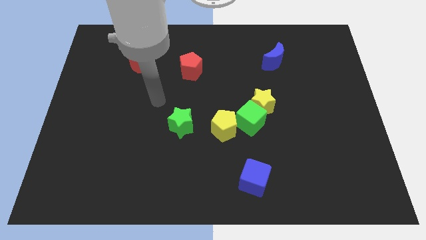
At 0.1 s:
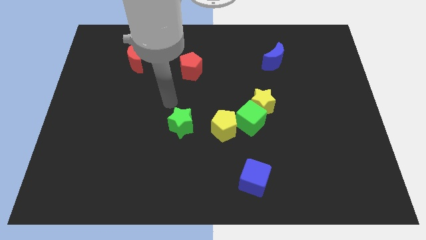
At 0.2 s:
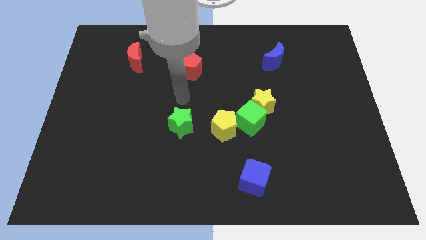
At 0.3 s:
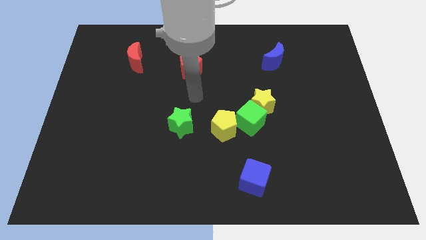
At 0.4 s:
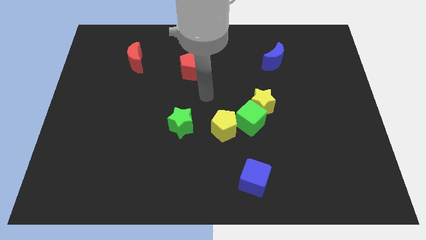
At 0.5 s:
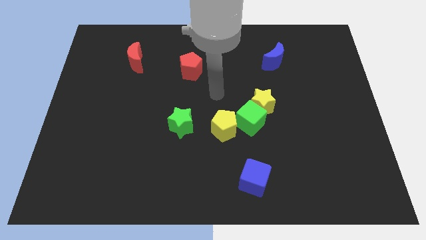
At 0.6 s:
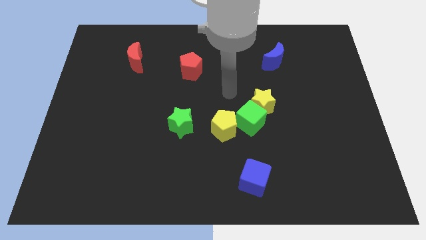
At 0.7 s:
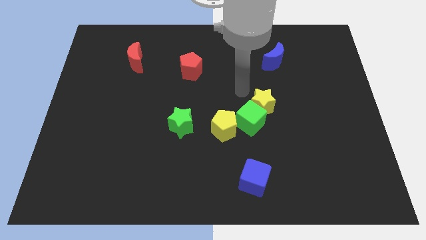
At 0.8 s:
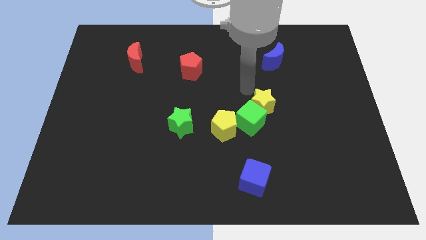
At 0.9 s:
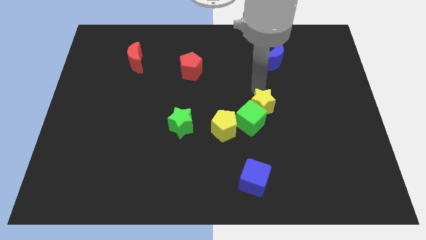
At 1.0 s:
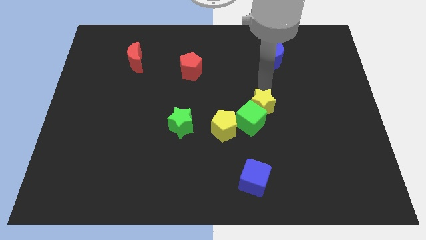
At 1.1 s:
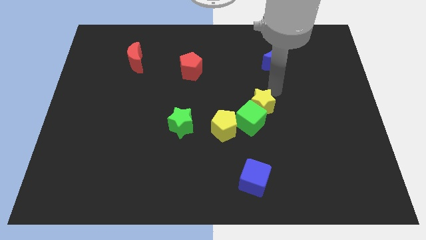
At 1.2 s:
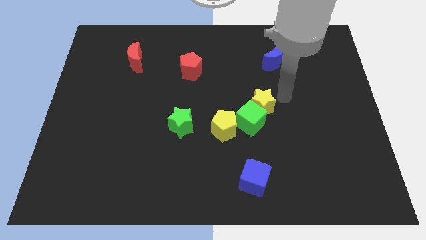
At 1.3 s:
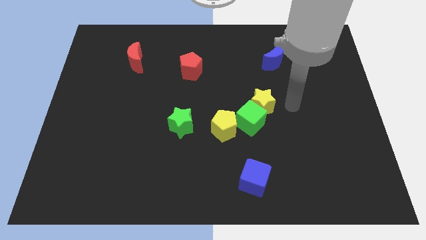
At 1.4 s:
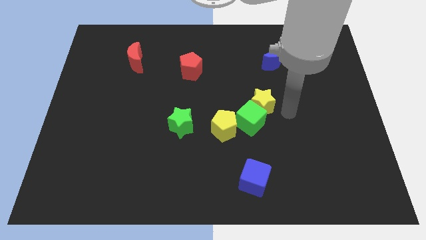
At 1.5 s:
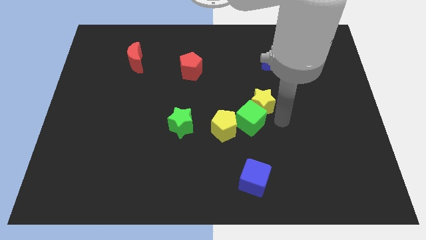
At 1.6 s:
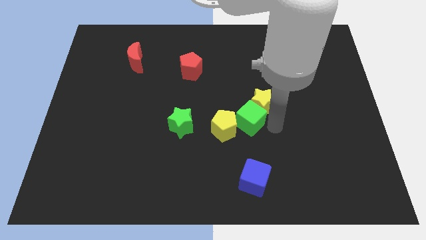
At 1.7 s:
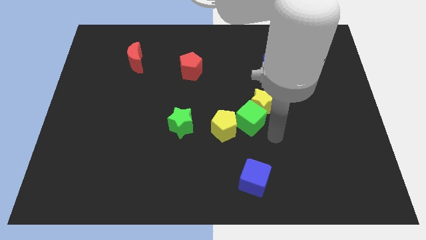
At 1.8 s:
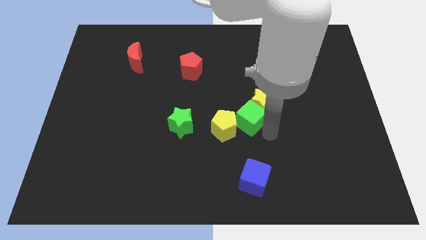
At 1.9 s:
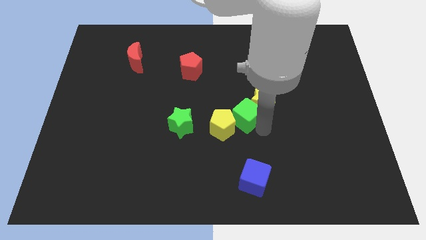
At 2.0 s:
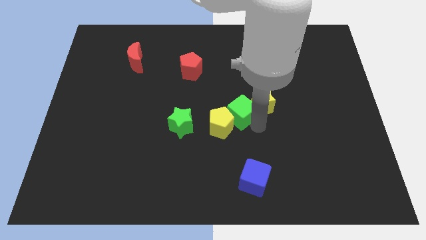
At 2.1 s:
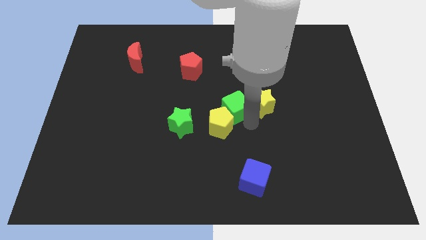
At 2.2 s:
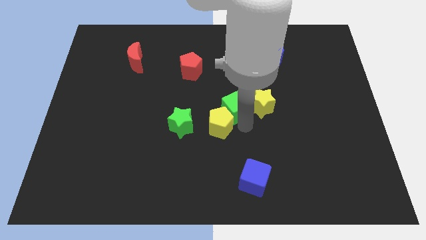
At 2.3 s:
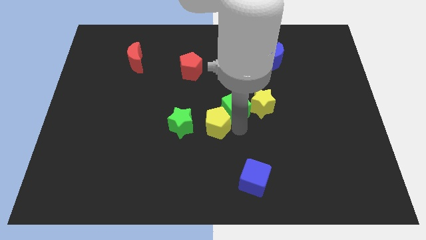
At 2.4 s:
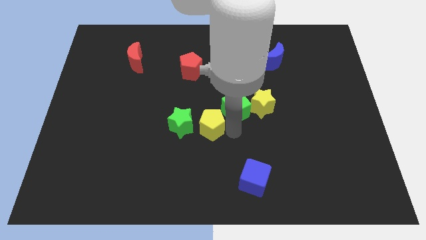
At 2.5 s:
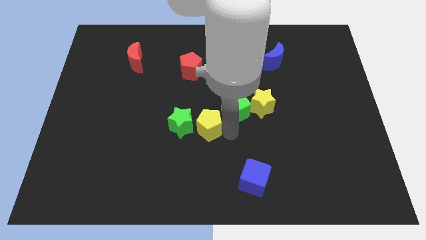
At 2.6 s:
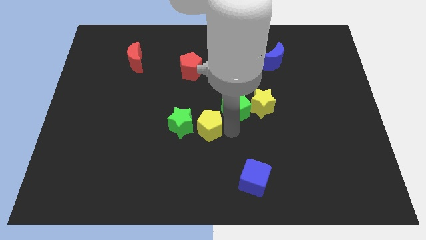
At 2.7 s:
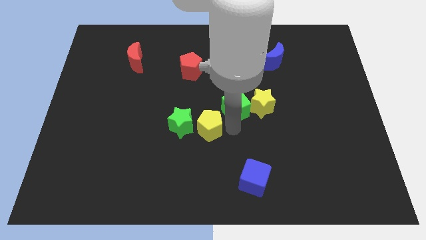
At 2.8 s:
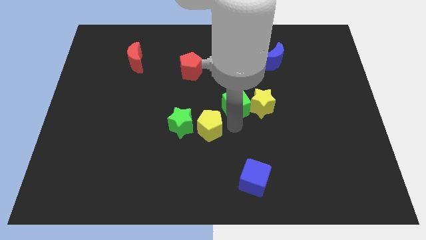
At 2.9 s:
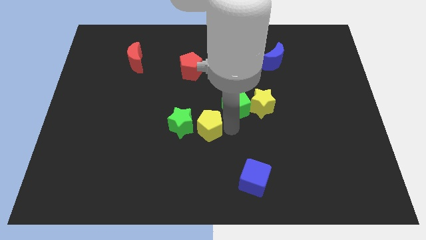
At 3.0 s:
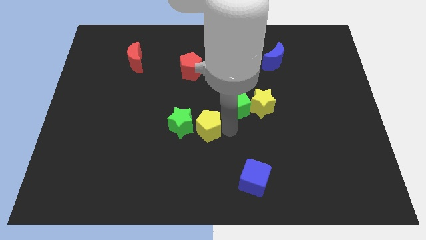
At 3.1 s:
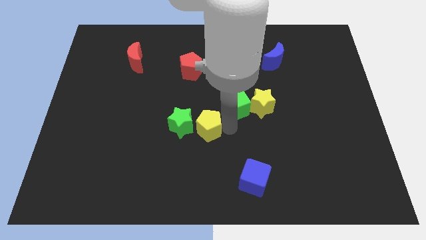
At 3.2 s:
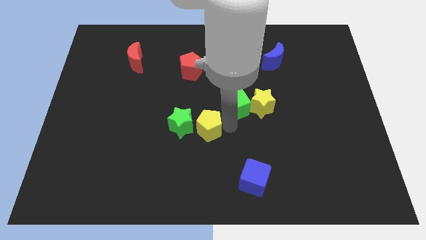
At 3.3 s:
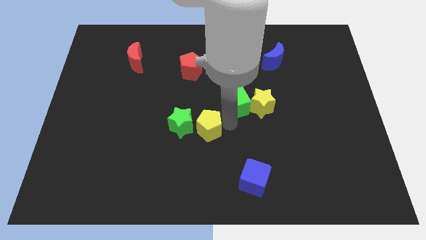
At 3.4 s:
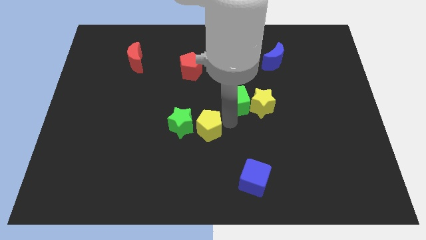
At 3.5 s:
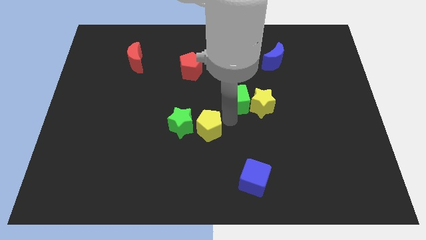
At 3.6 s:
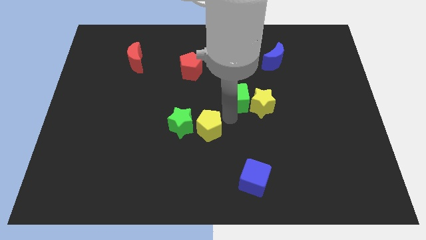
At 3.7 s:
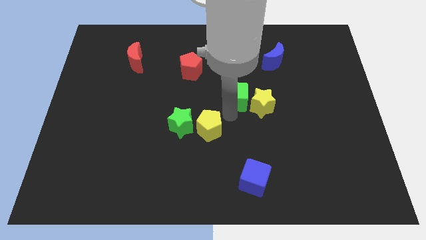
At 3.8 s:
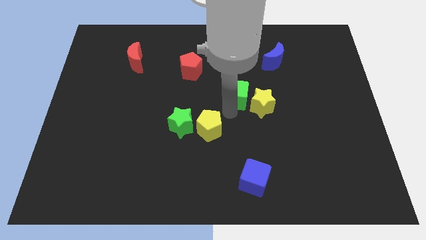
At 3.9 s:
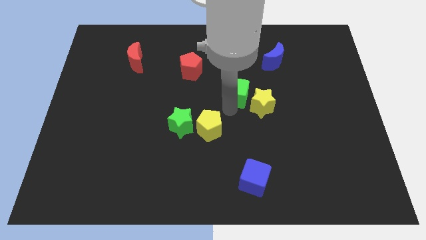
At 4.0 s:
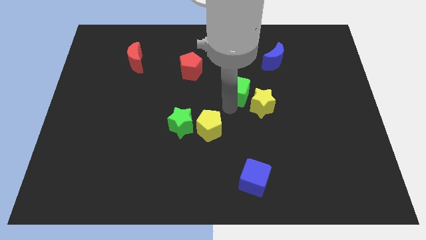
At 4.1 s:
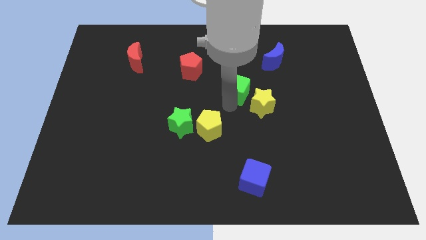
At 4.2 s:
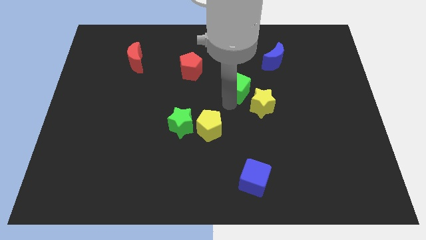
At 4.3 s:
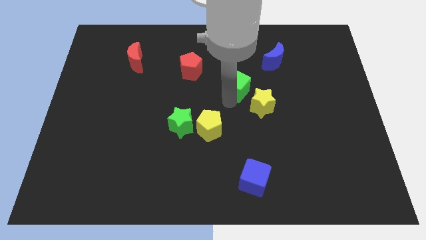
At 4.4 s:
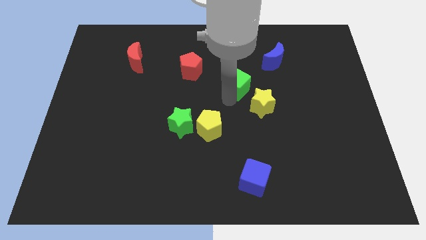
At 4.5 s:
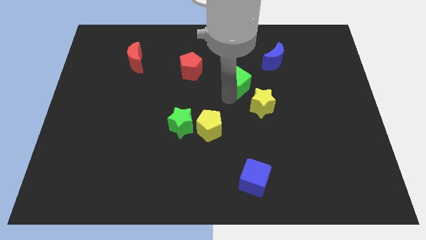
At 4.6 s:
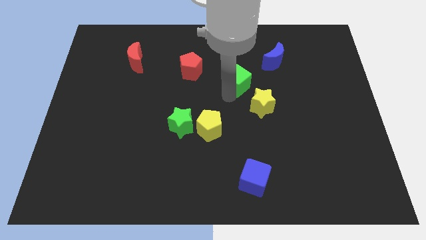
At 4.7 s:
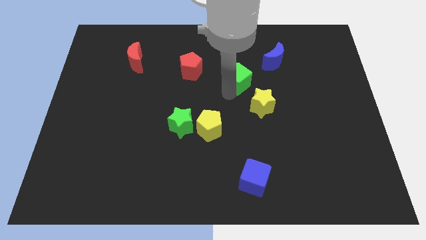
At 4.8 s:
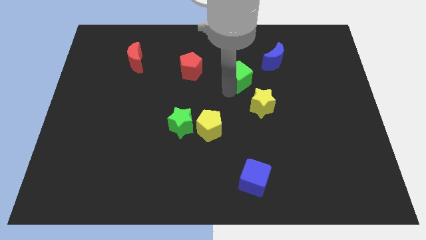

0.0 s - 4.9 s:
slide the green cube above the yellow star

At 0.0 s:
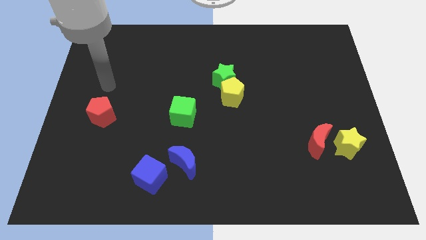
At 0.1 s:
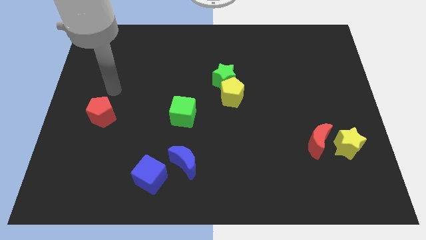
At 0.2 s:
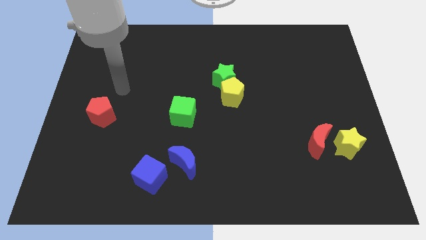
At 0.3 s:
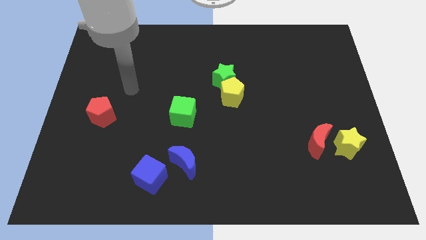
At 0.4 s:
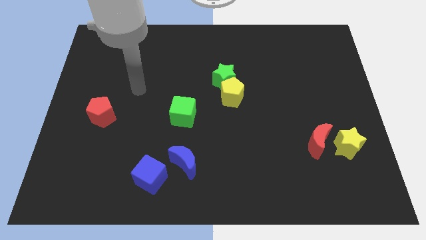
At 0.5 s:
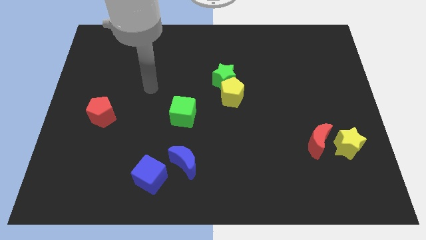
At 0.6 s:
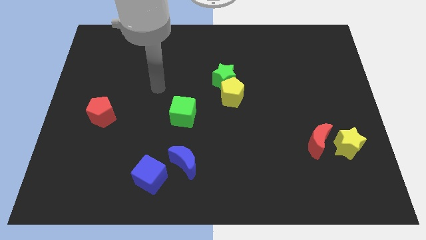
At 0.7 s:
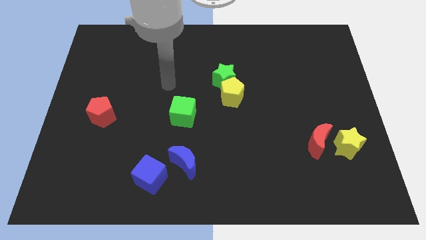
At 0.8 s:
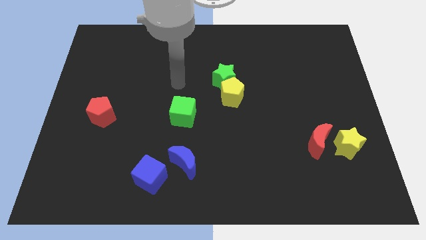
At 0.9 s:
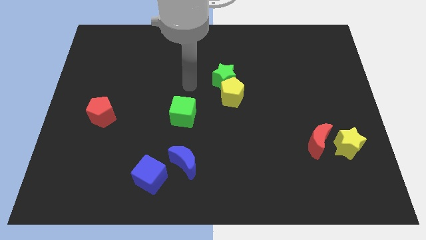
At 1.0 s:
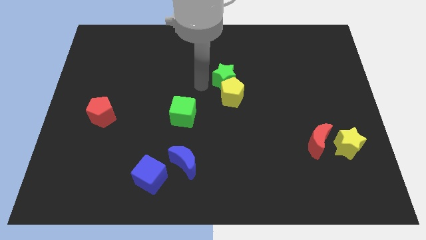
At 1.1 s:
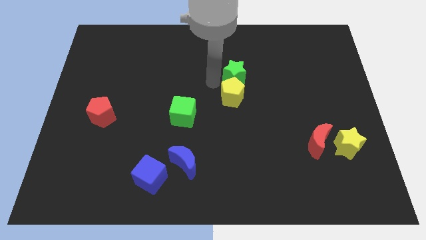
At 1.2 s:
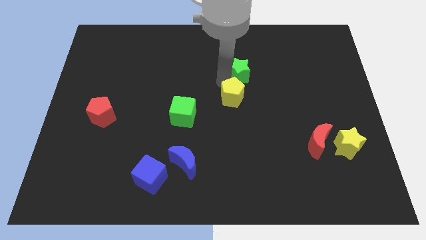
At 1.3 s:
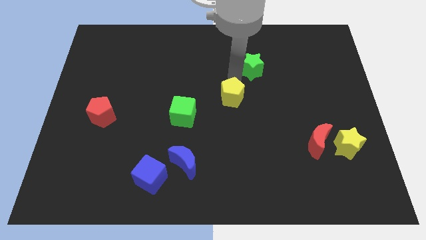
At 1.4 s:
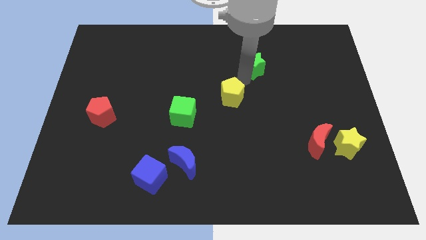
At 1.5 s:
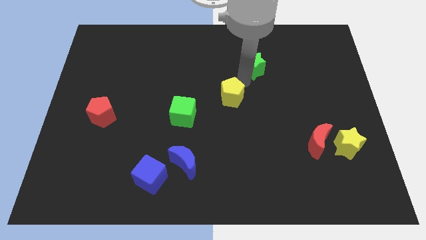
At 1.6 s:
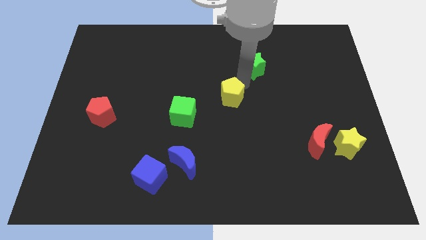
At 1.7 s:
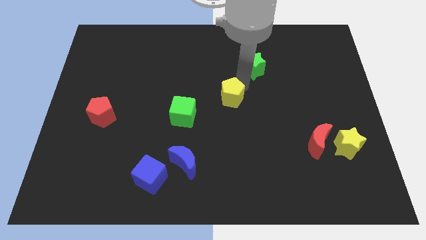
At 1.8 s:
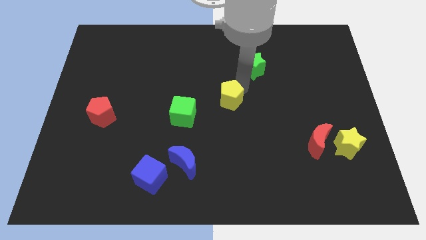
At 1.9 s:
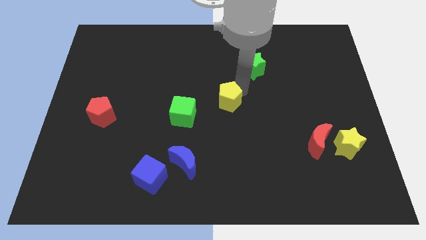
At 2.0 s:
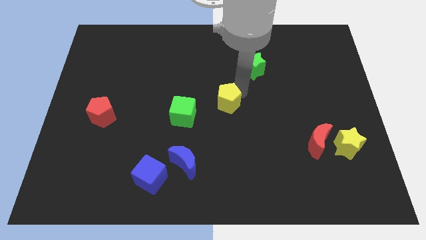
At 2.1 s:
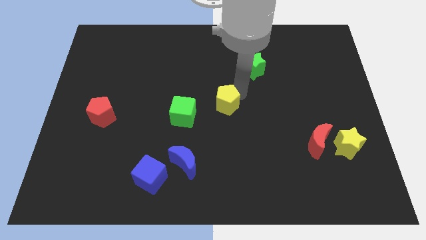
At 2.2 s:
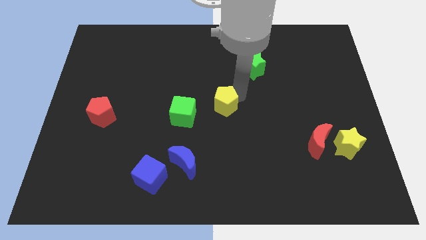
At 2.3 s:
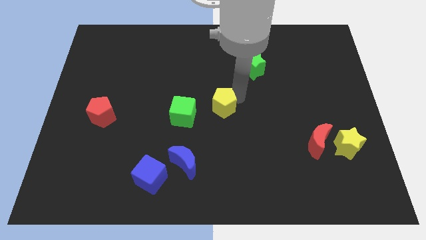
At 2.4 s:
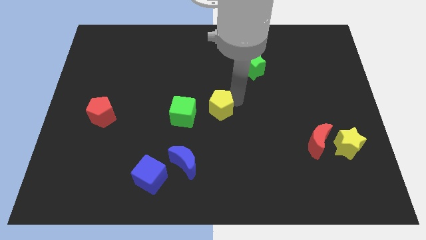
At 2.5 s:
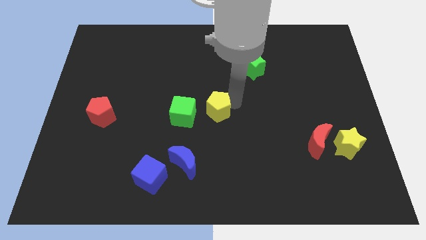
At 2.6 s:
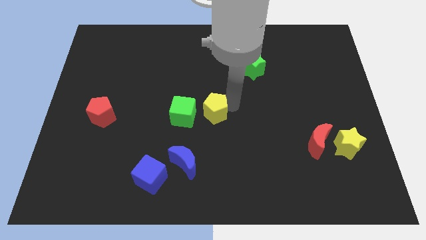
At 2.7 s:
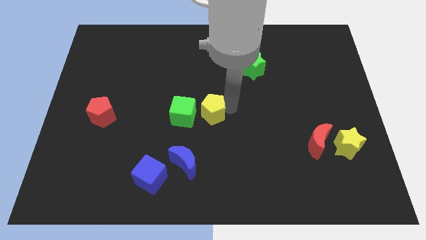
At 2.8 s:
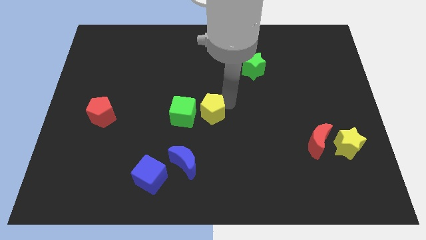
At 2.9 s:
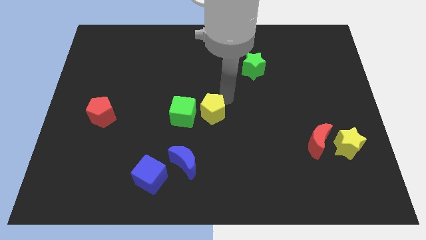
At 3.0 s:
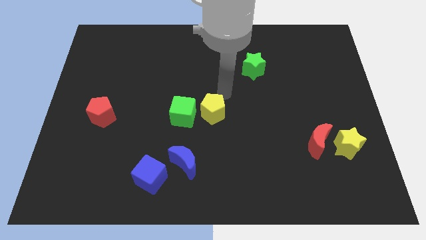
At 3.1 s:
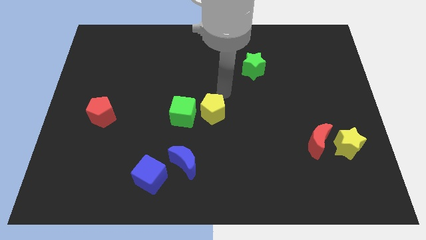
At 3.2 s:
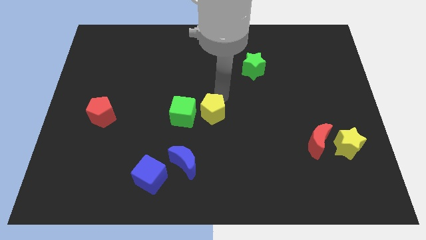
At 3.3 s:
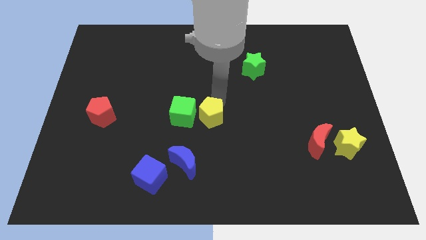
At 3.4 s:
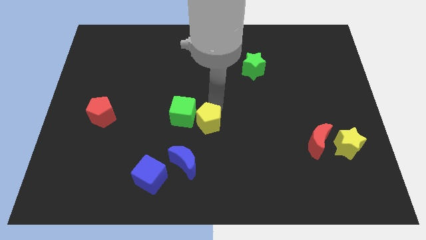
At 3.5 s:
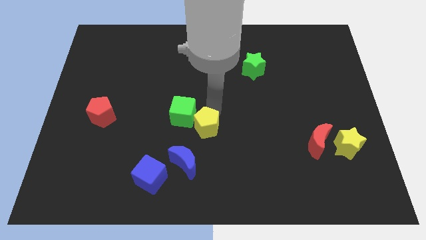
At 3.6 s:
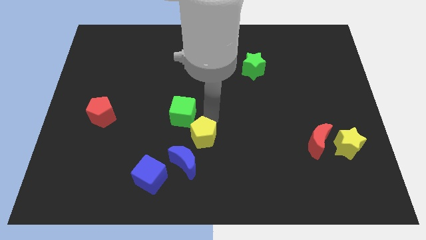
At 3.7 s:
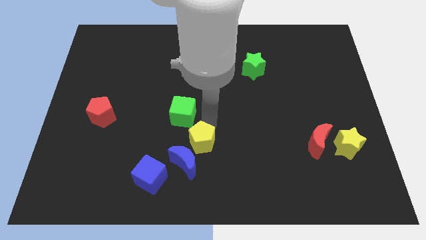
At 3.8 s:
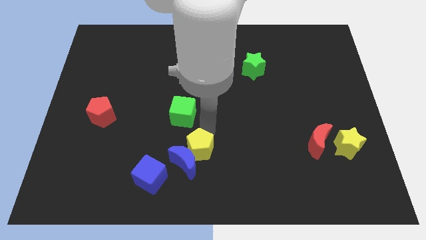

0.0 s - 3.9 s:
move the yellow pentagon to the top right of the blue cube
